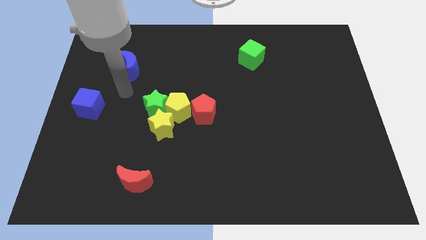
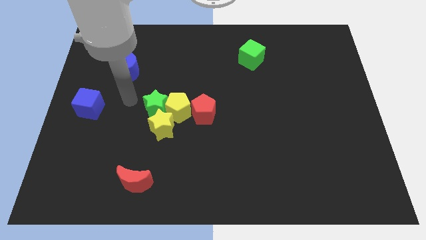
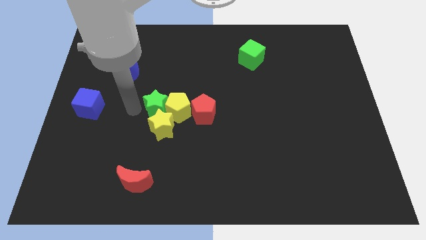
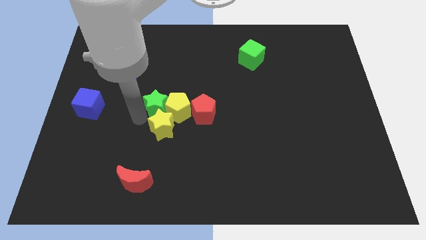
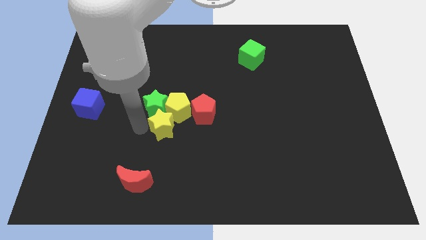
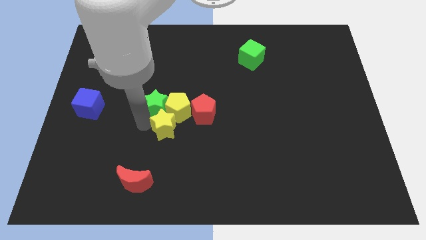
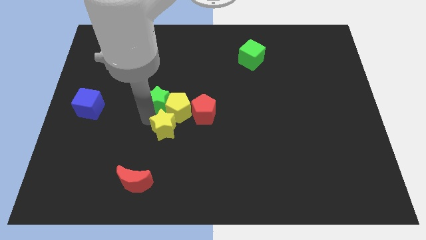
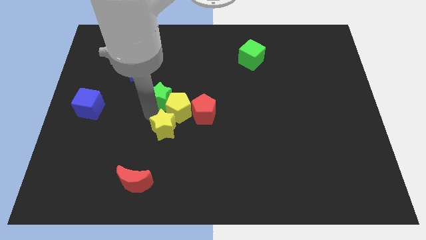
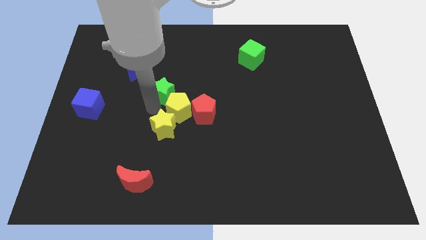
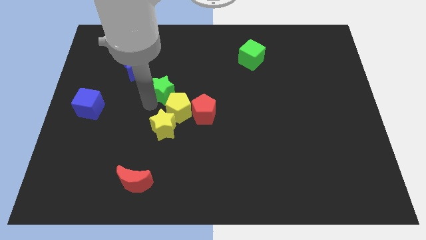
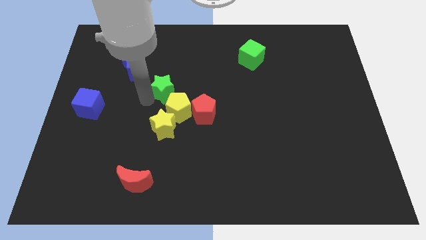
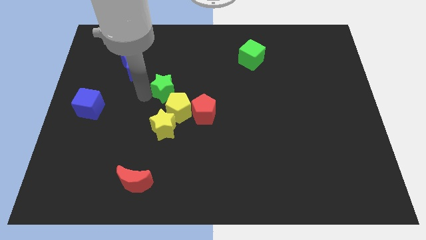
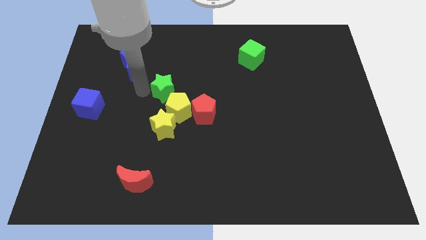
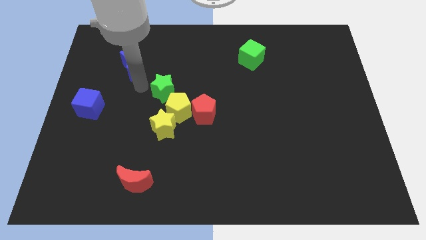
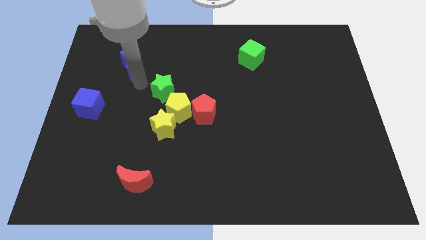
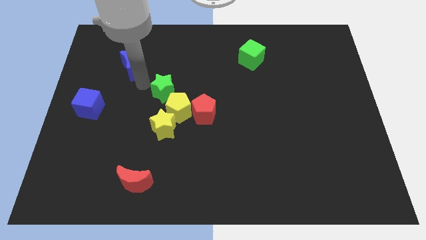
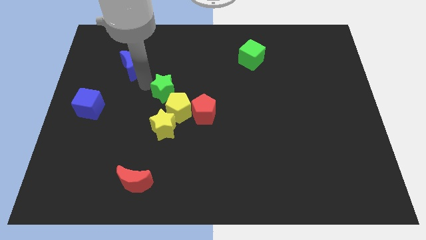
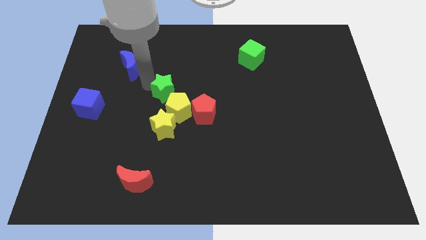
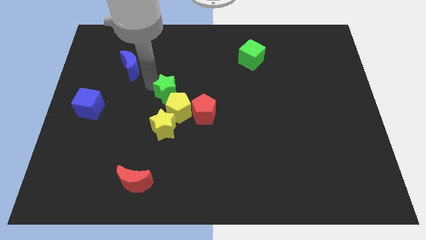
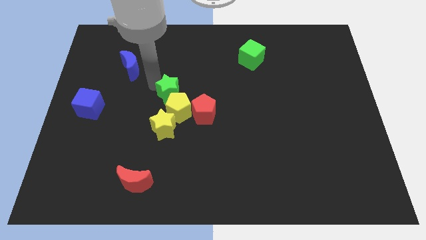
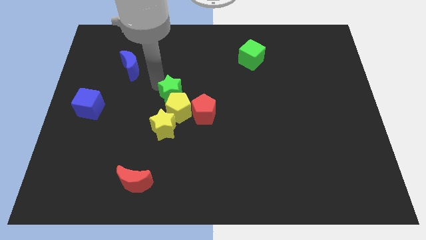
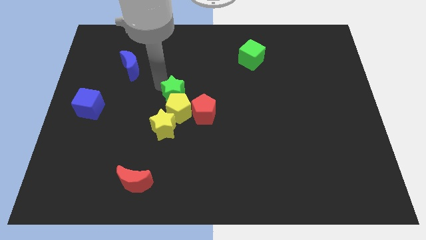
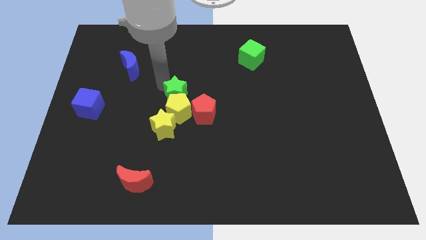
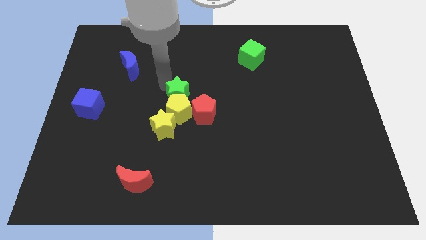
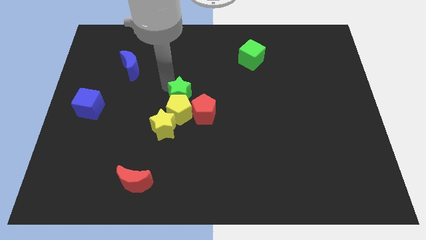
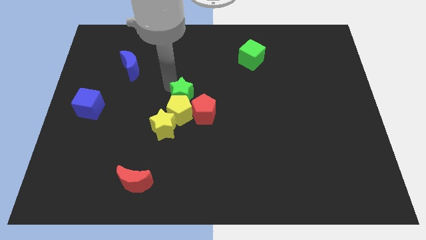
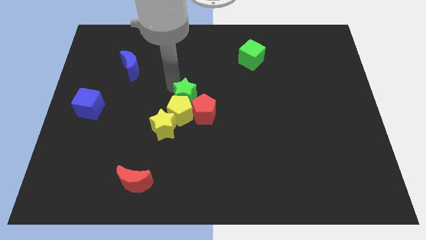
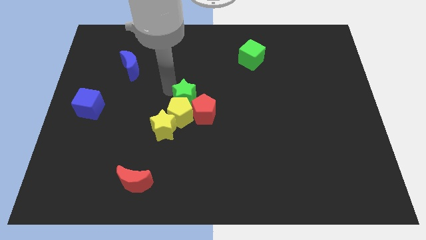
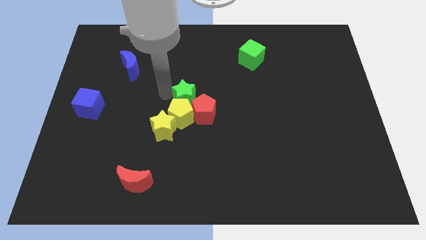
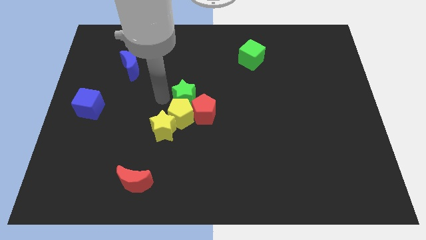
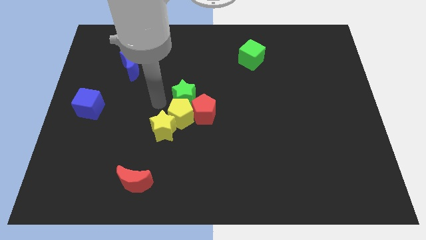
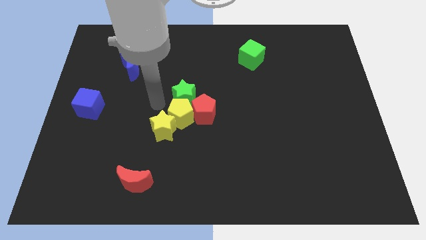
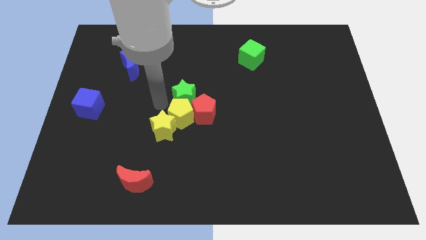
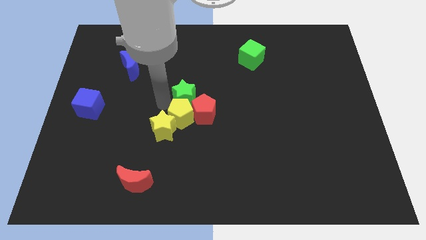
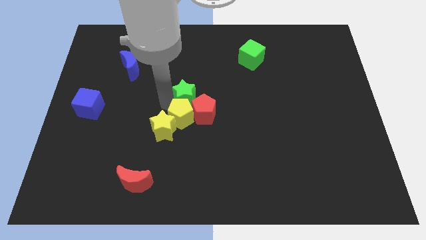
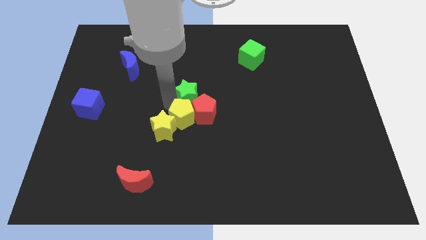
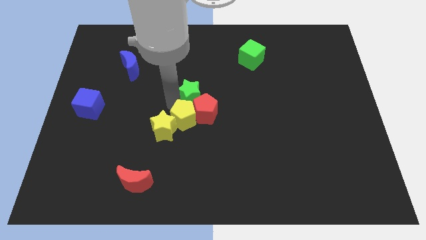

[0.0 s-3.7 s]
slightly slide the green star right

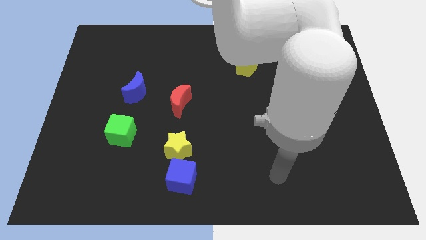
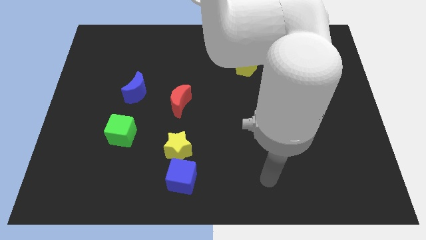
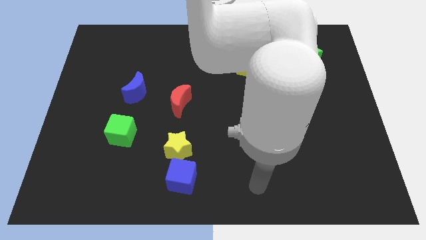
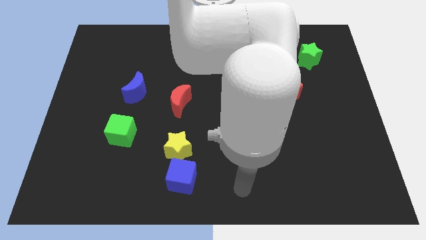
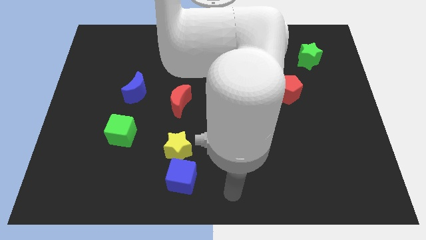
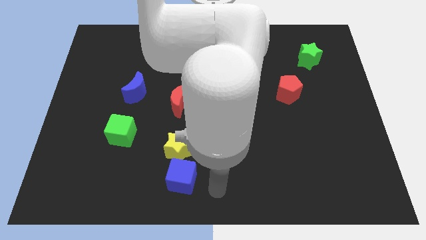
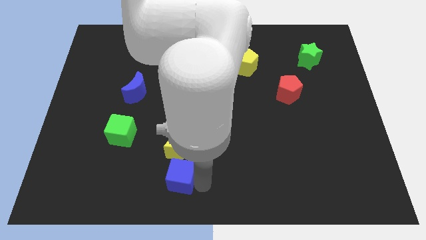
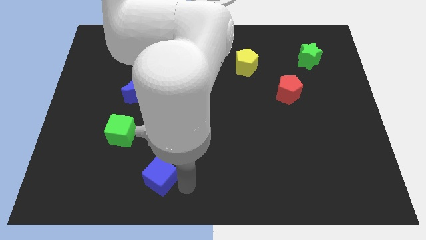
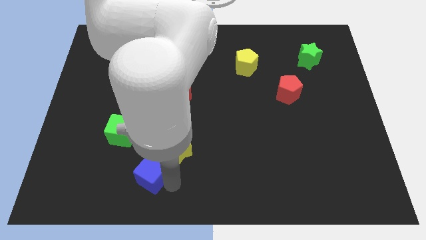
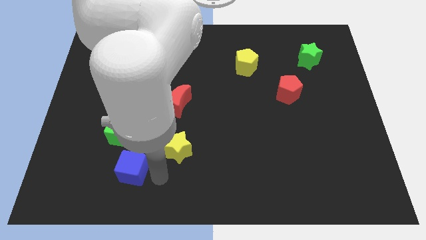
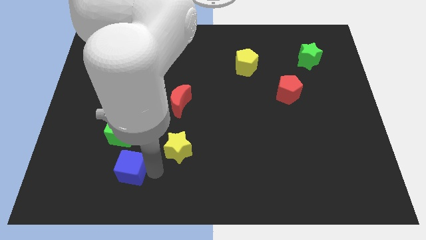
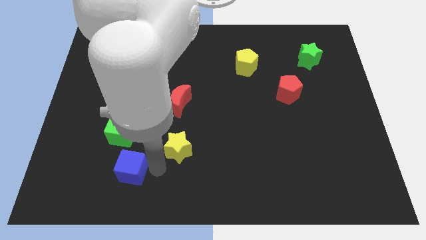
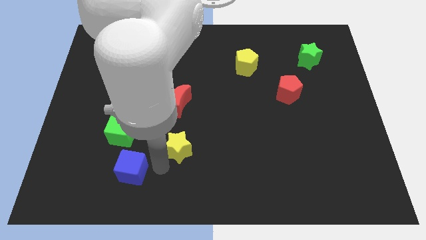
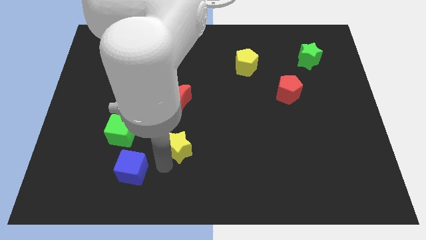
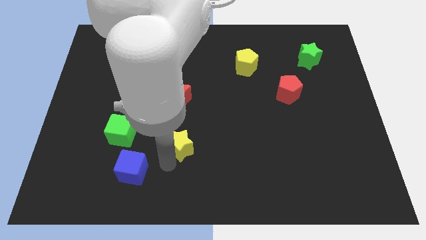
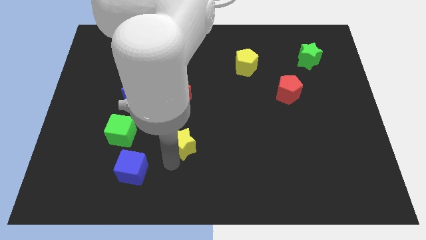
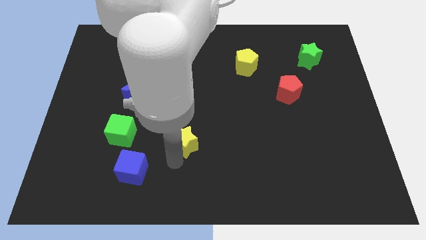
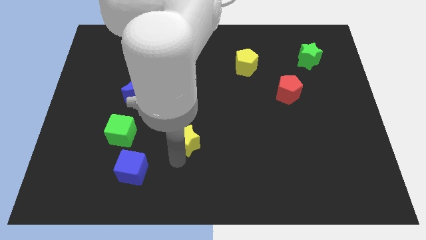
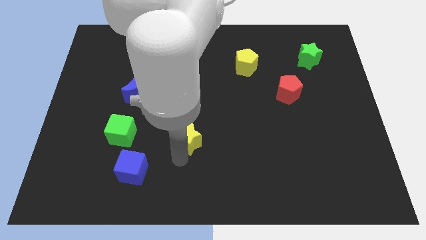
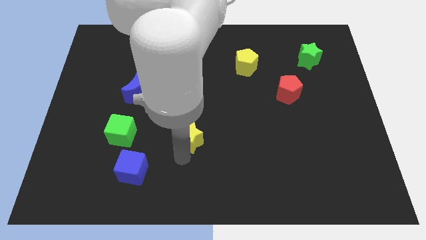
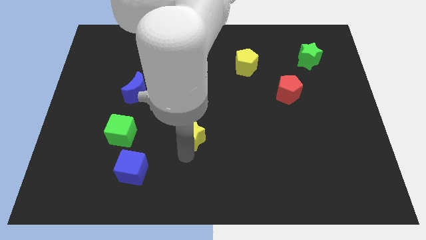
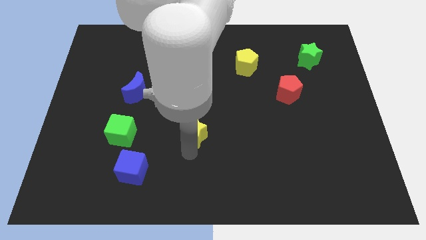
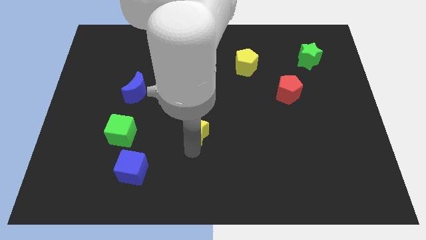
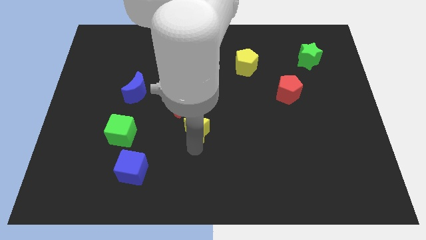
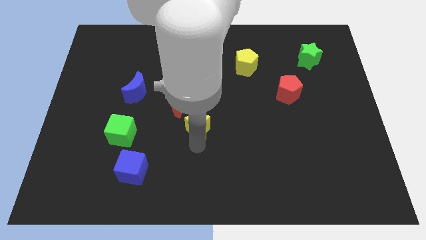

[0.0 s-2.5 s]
slightly push the yellow star up and to the right diagonally

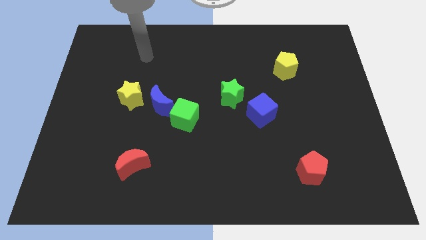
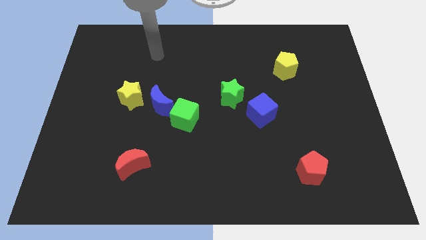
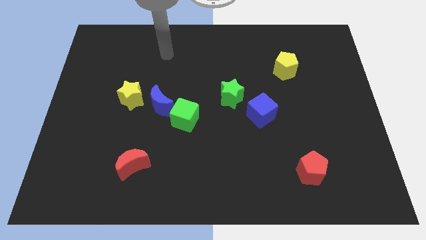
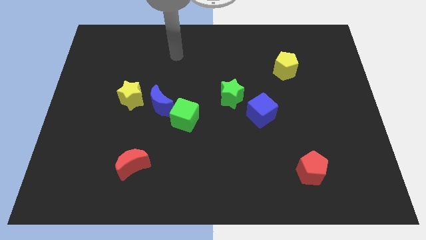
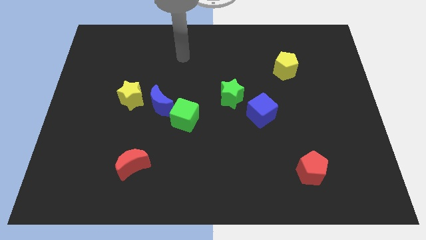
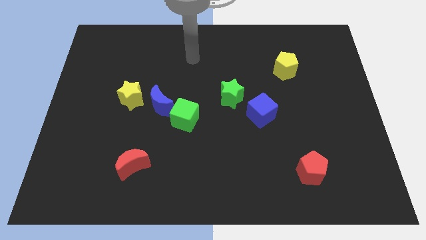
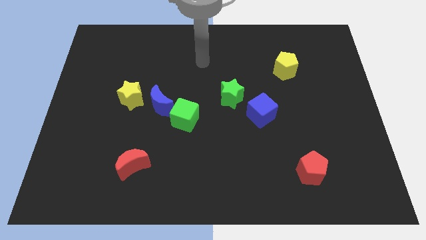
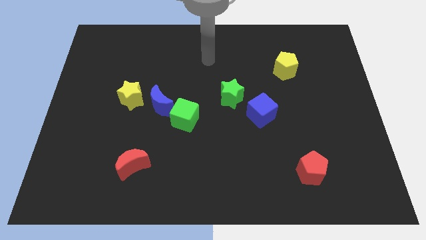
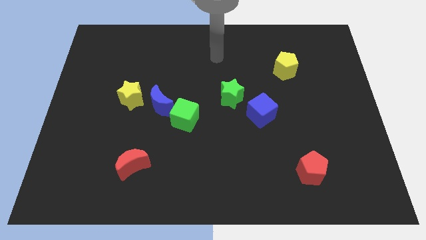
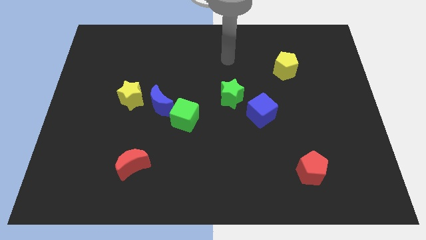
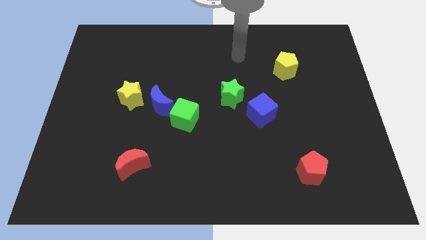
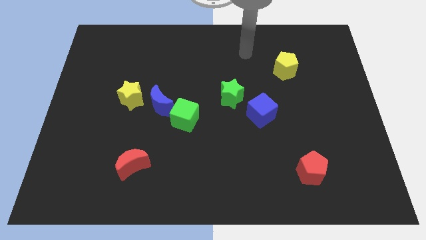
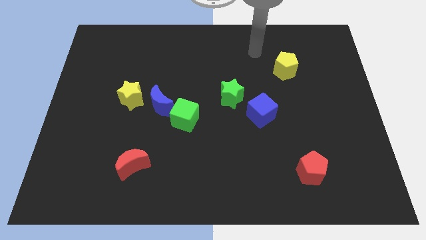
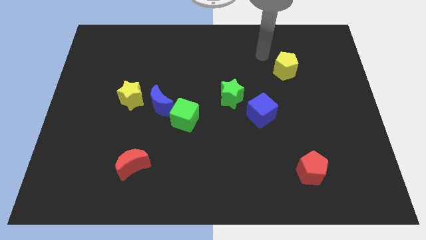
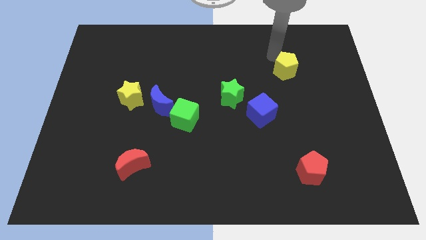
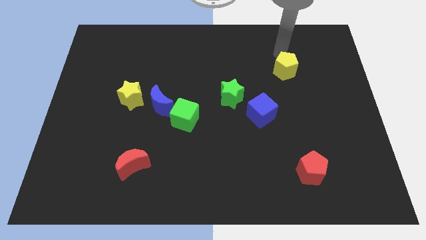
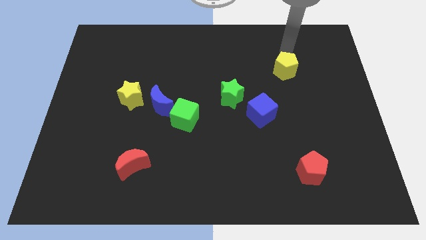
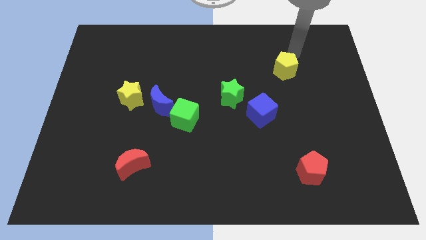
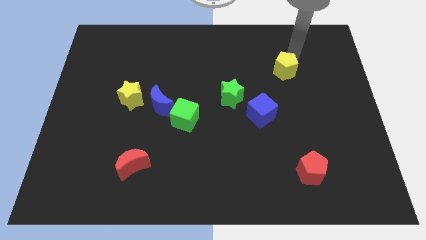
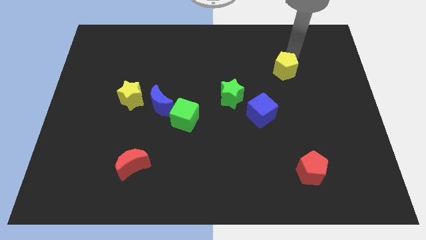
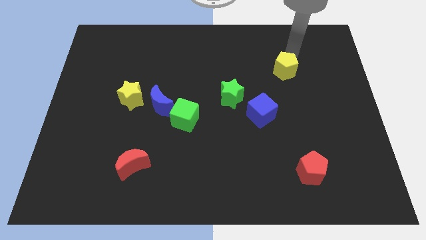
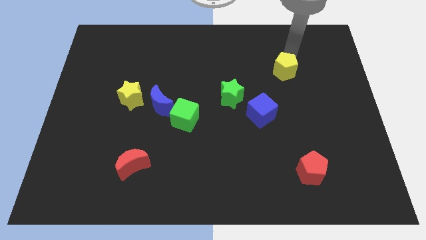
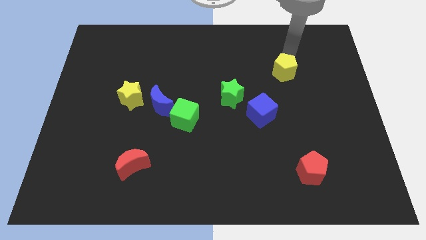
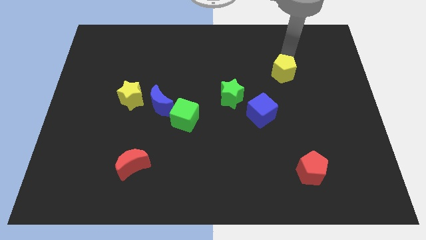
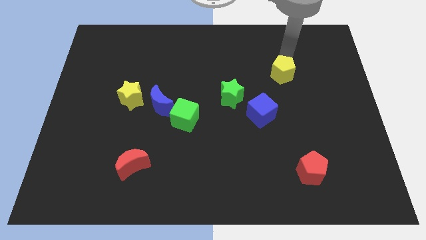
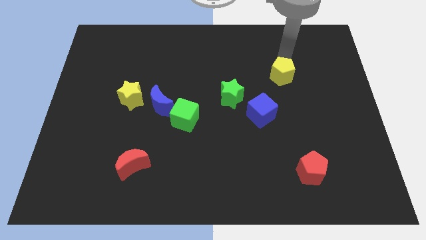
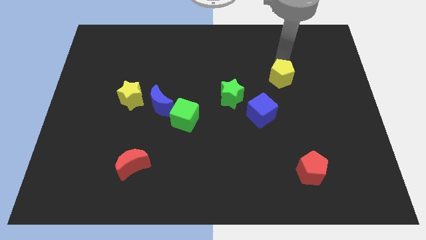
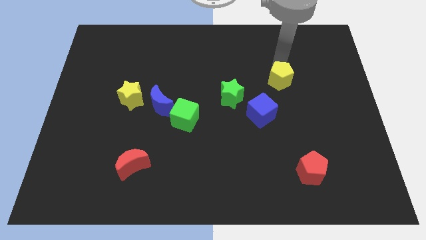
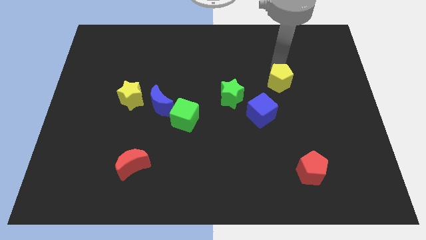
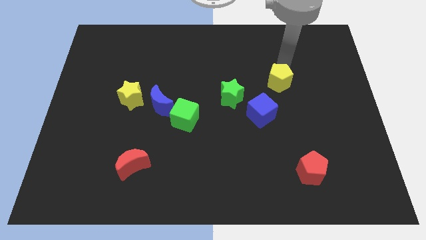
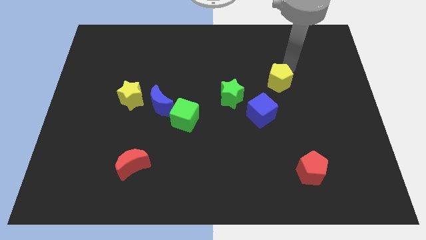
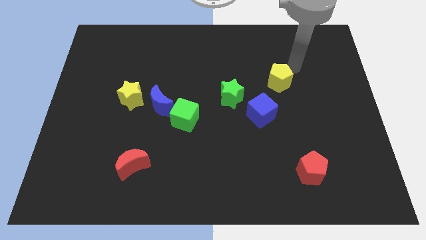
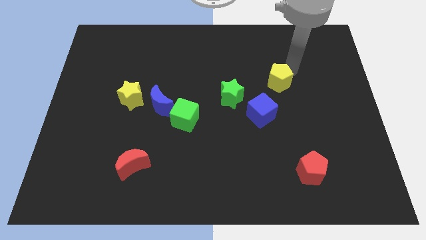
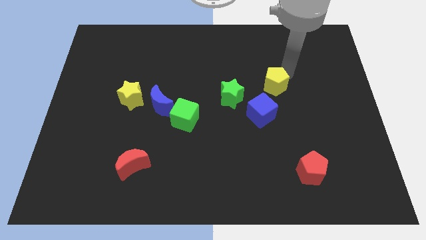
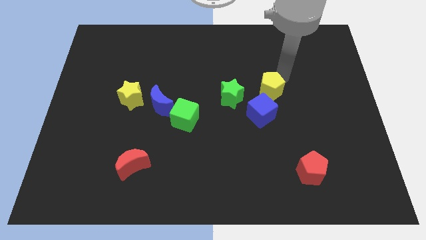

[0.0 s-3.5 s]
slightly push the yellow pentagon downwards and left
